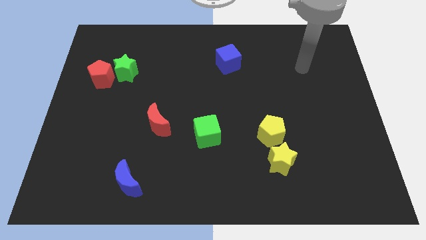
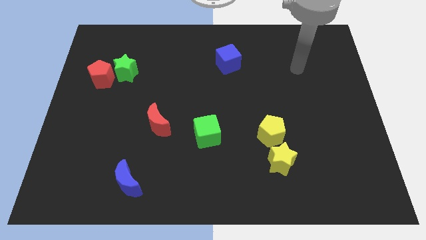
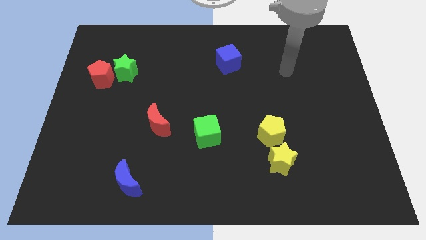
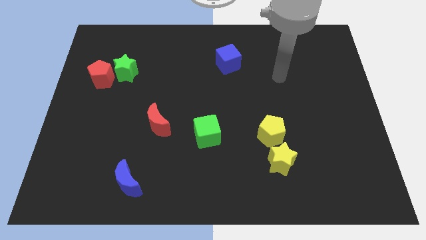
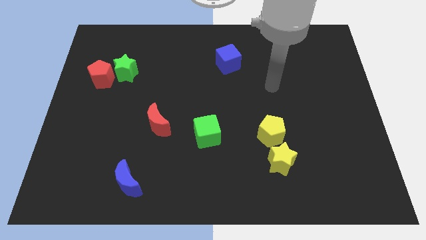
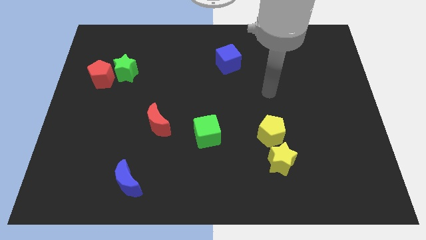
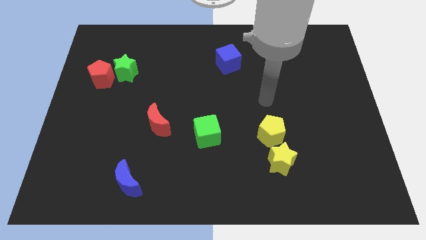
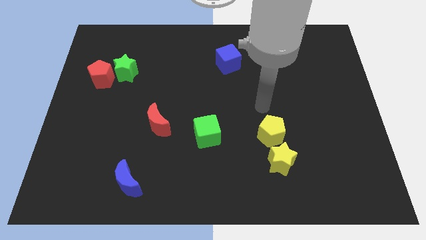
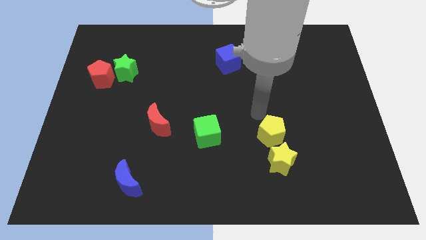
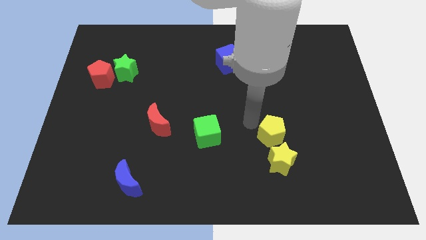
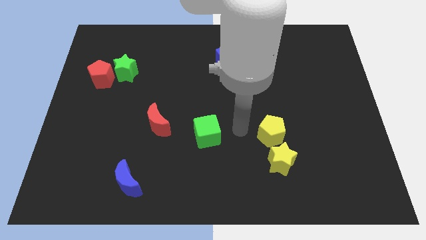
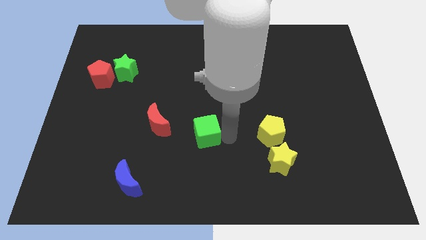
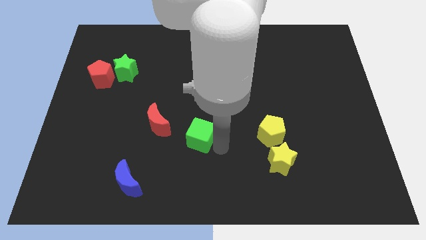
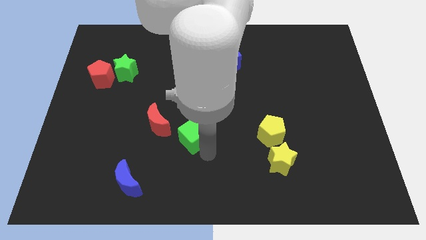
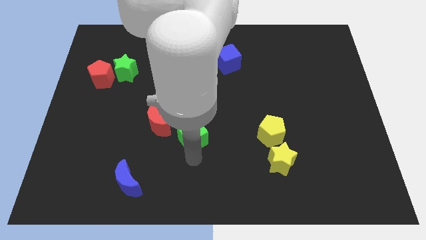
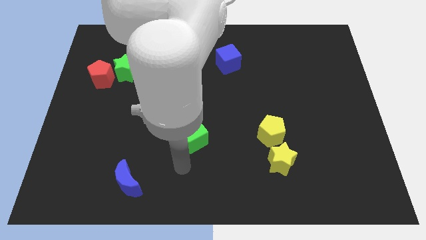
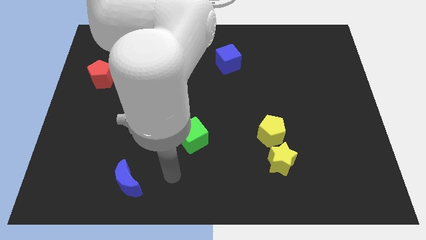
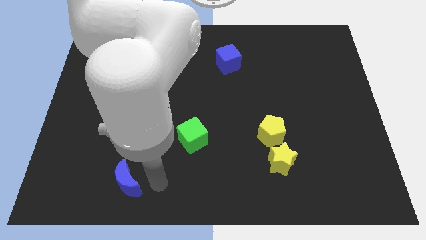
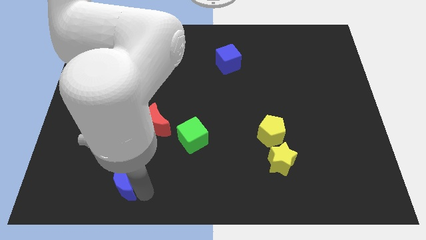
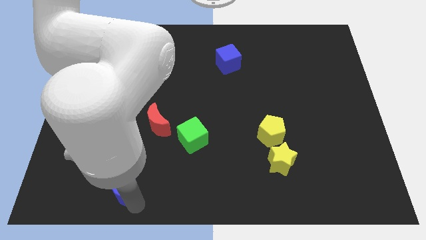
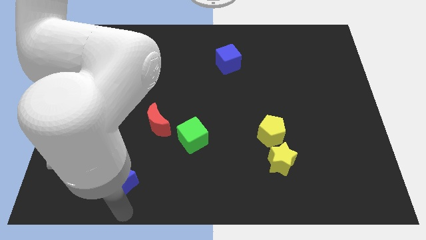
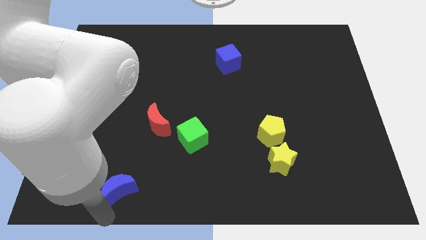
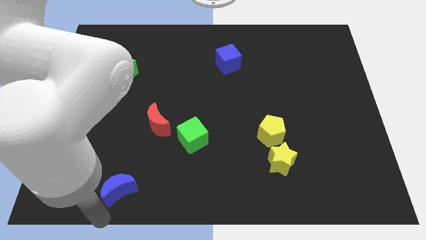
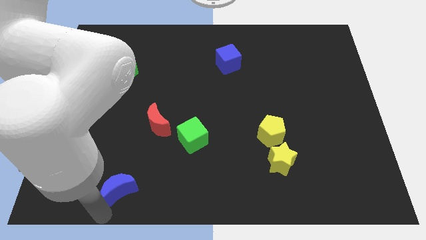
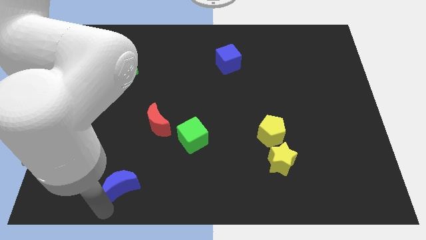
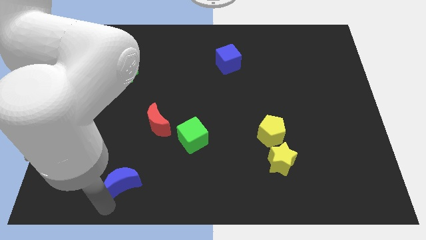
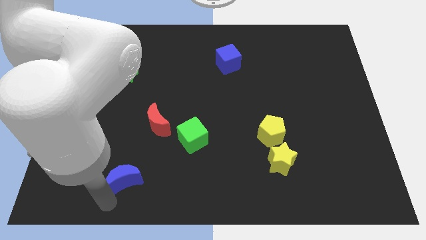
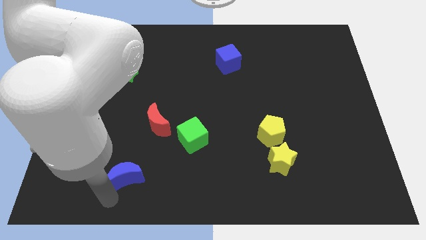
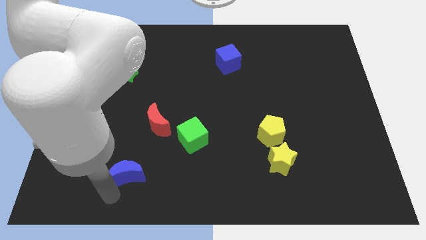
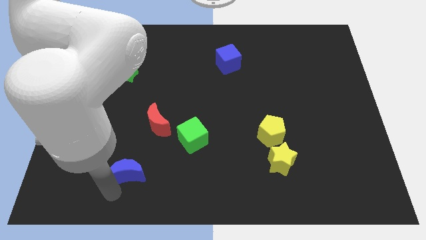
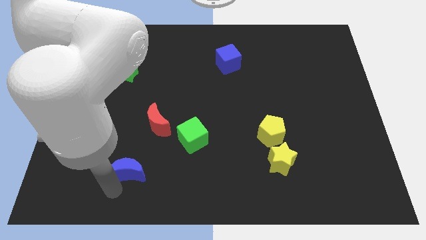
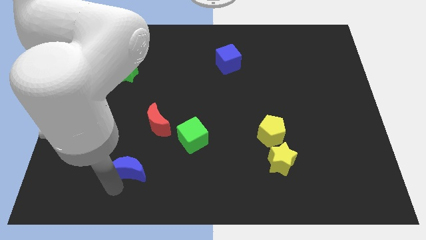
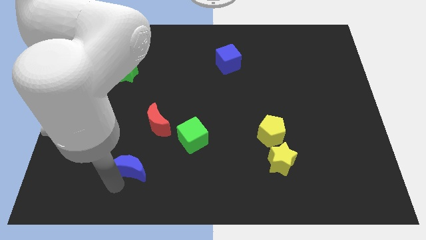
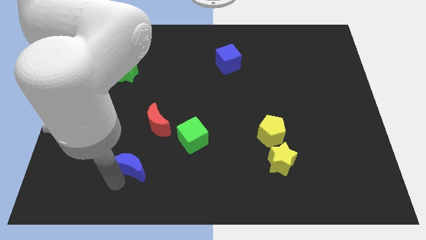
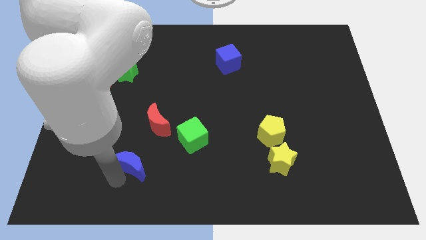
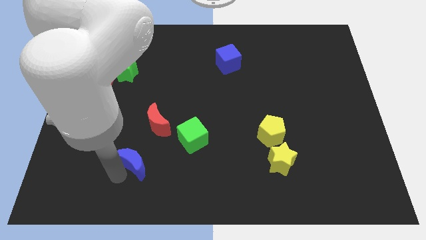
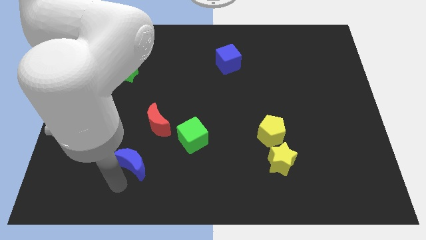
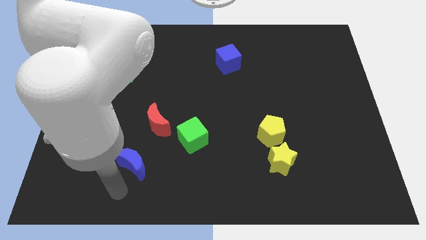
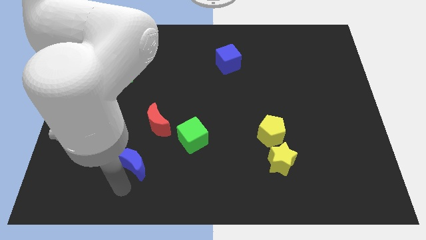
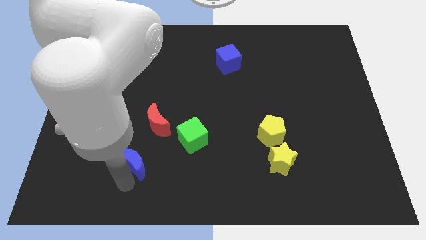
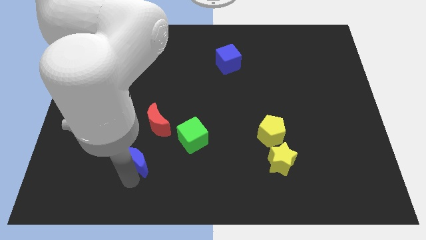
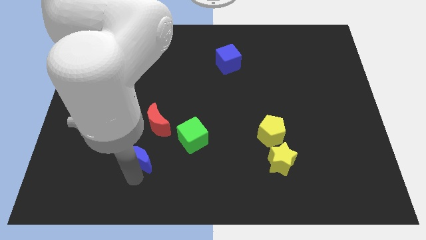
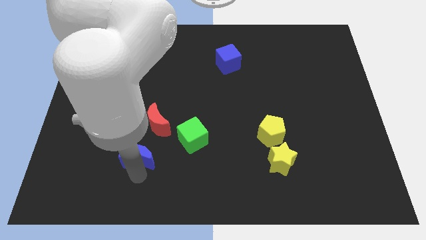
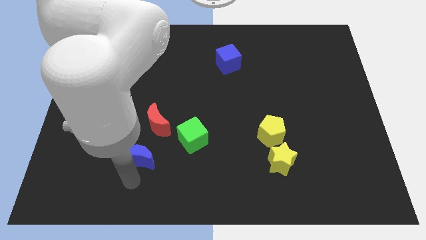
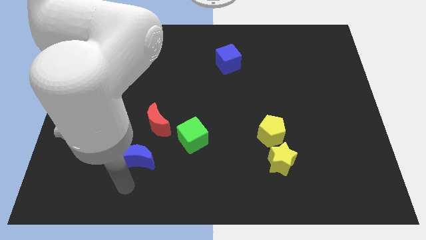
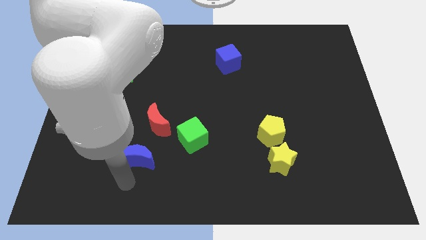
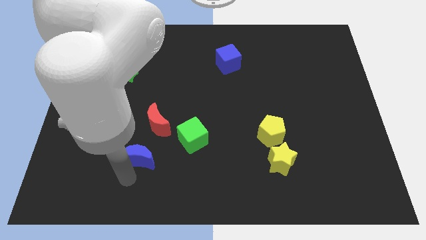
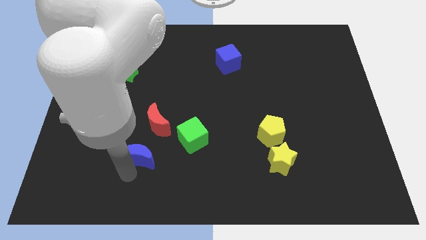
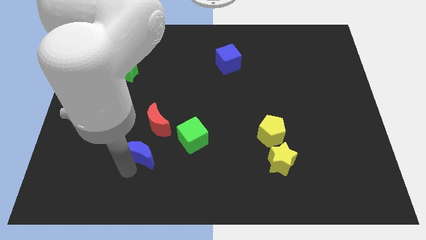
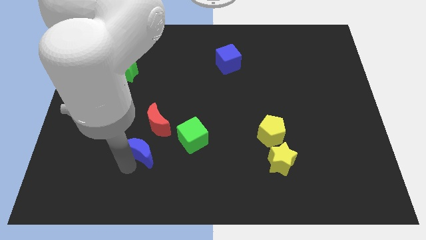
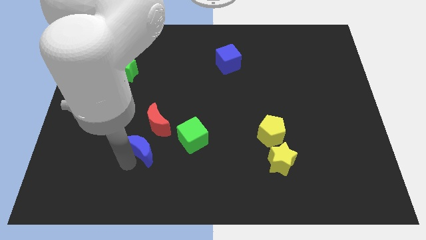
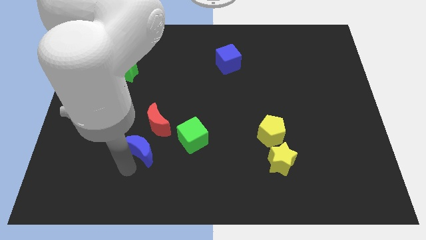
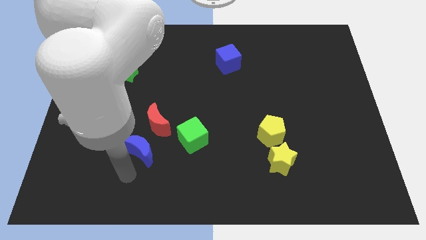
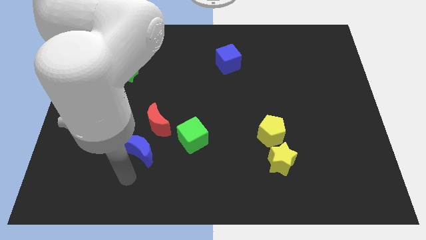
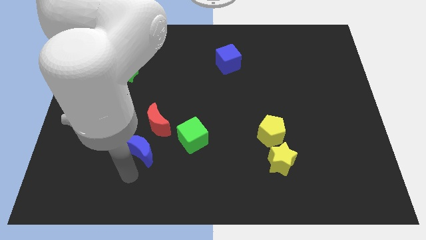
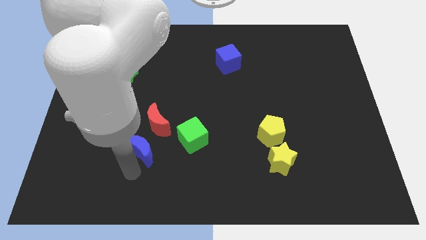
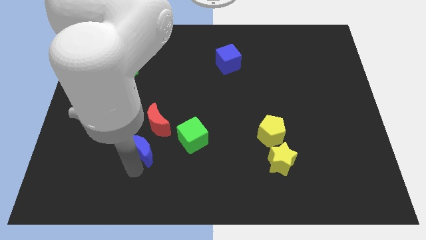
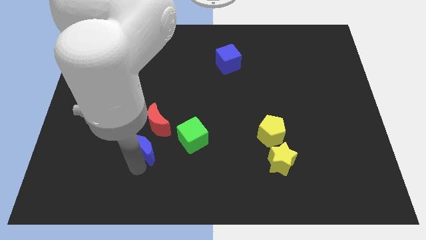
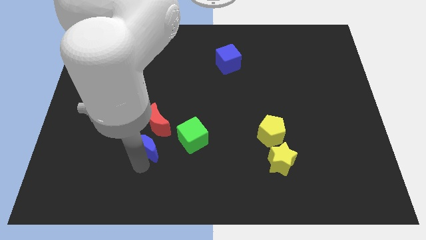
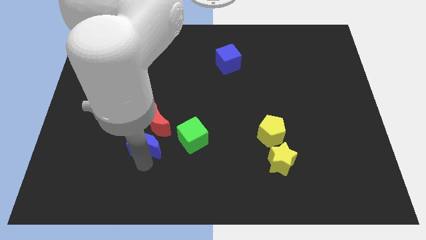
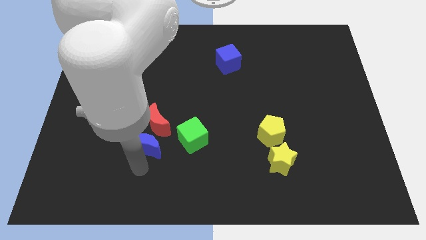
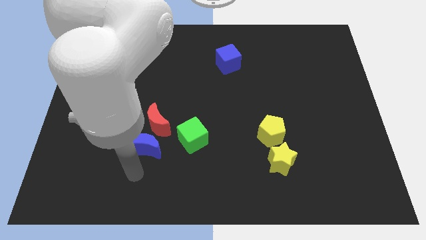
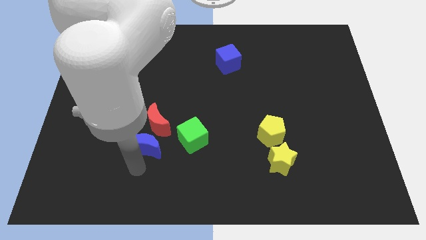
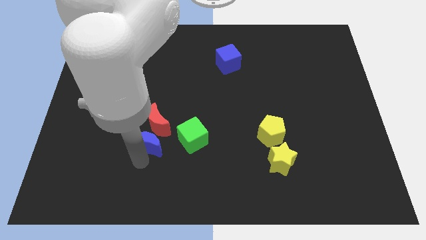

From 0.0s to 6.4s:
move the blue moon next to the red moon
